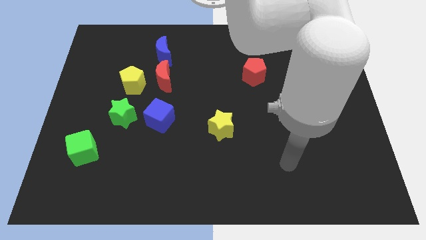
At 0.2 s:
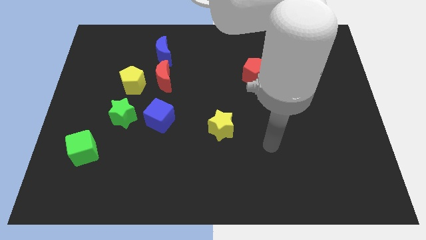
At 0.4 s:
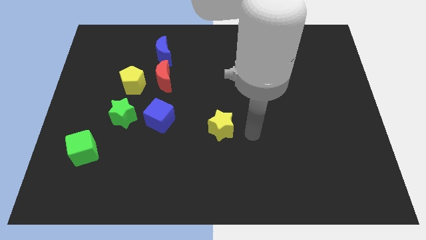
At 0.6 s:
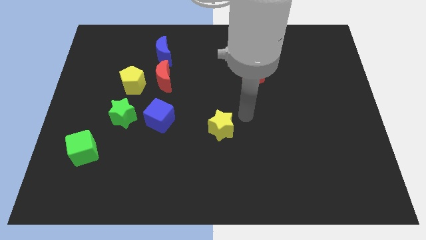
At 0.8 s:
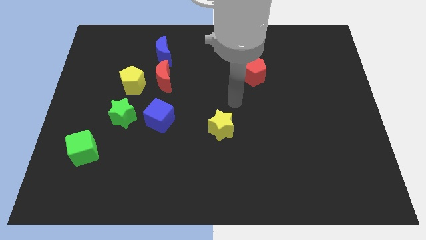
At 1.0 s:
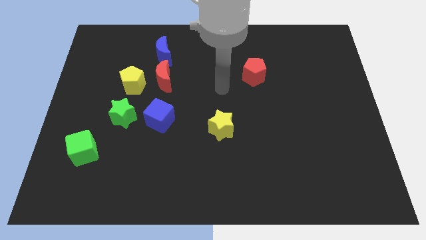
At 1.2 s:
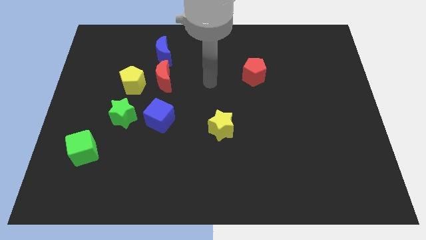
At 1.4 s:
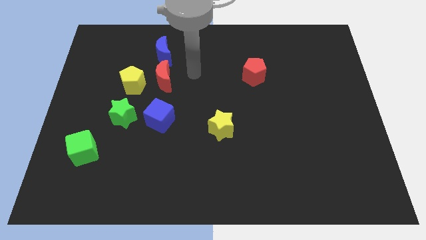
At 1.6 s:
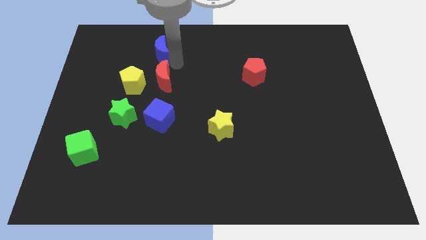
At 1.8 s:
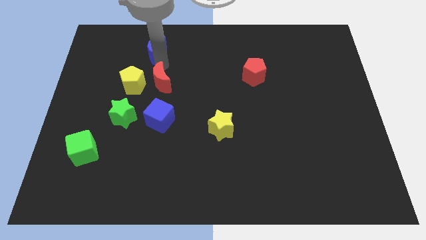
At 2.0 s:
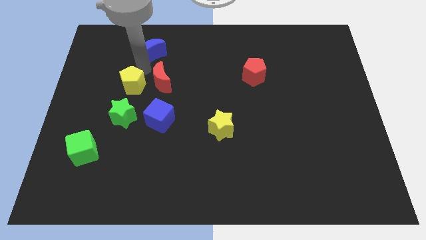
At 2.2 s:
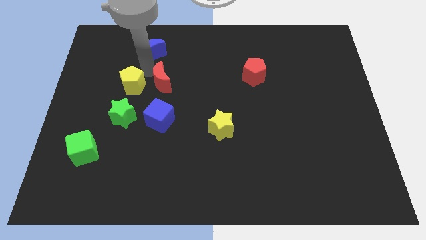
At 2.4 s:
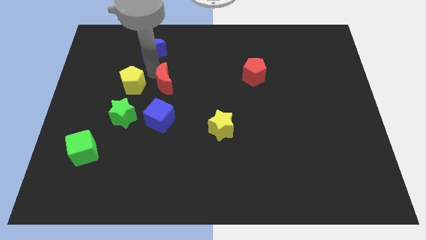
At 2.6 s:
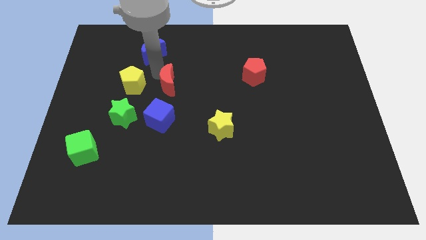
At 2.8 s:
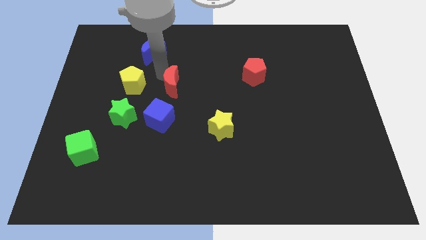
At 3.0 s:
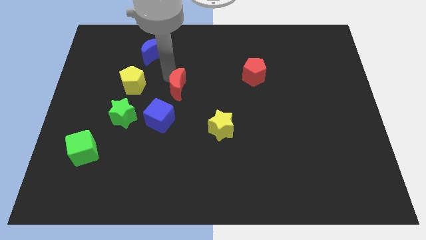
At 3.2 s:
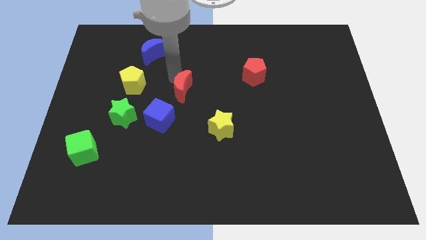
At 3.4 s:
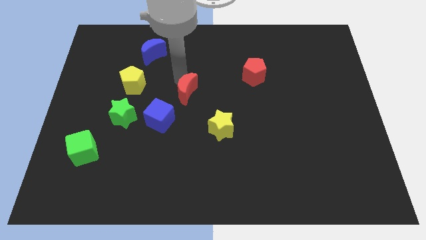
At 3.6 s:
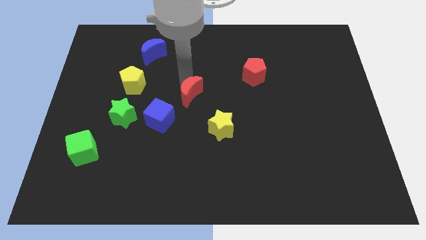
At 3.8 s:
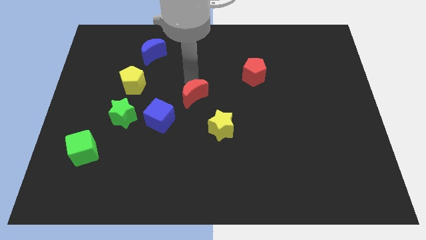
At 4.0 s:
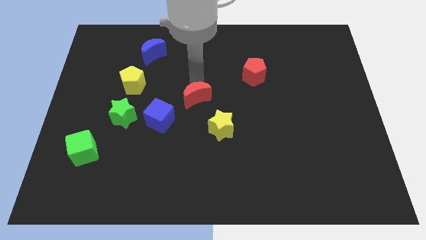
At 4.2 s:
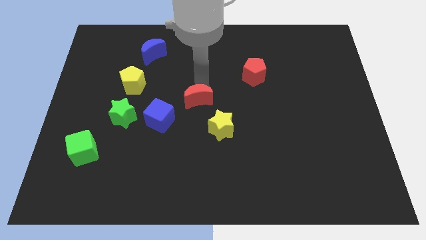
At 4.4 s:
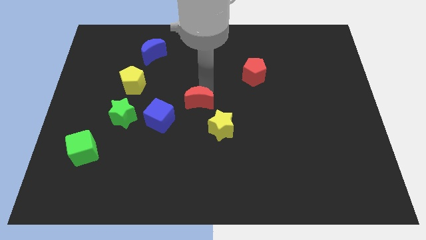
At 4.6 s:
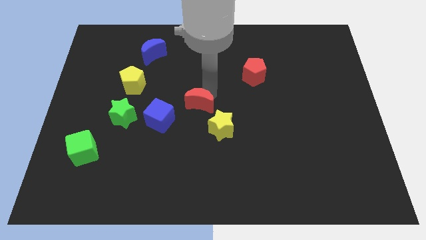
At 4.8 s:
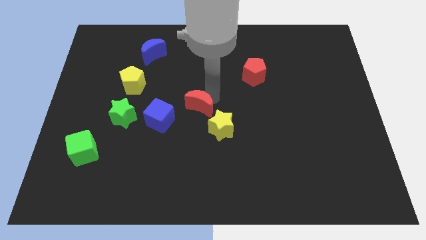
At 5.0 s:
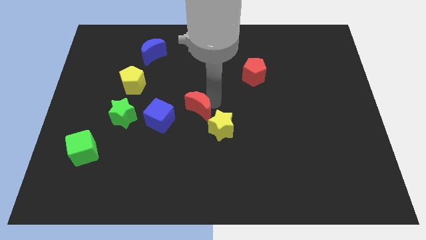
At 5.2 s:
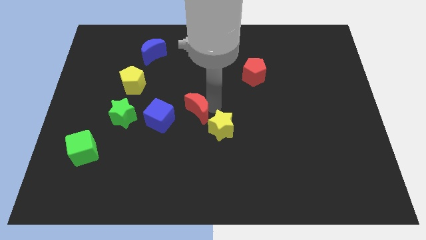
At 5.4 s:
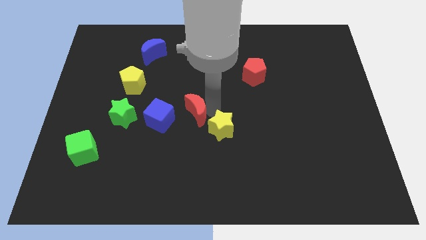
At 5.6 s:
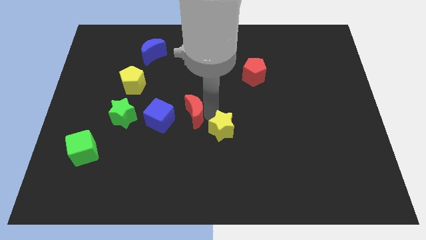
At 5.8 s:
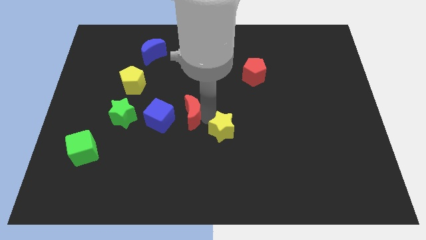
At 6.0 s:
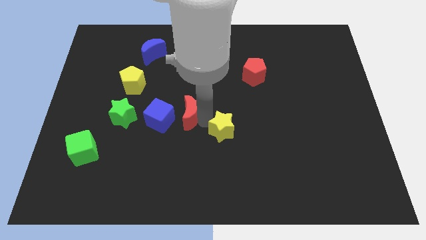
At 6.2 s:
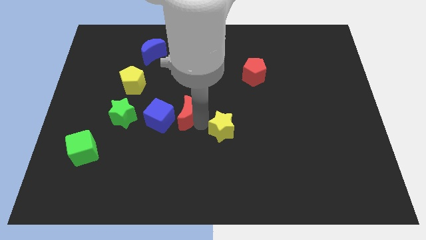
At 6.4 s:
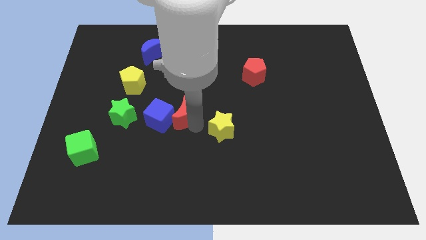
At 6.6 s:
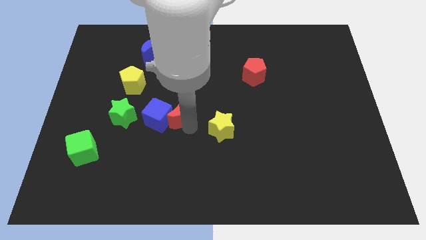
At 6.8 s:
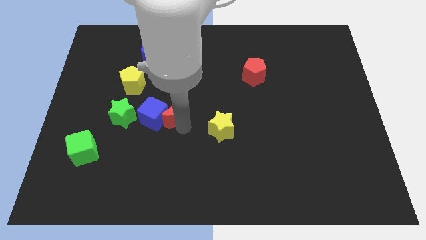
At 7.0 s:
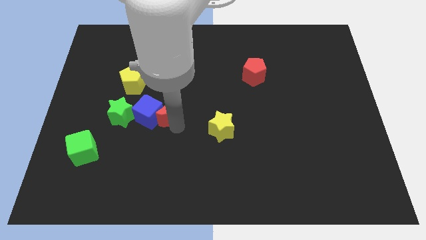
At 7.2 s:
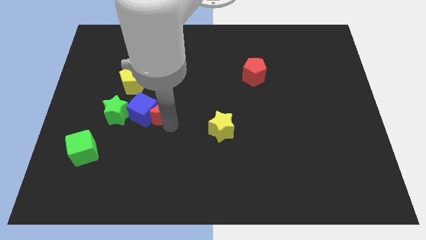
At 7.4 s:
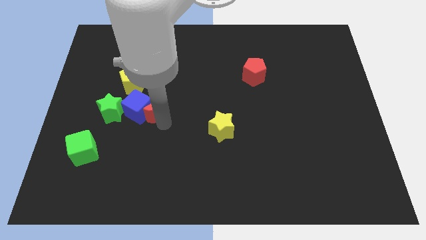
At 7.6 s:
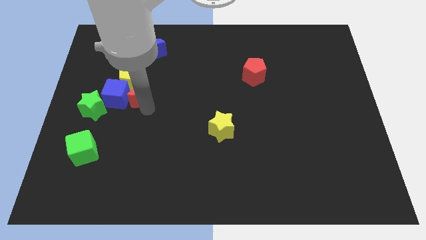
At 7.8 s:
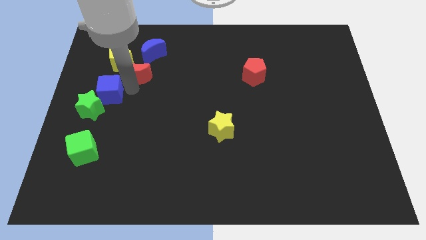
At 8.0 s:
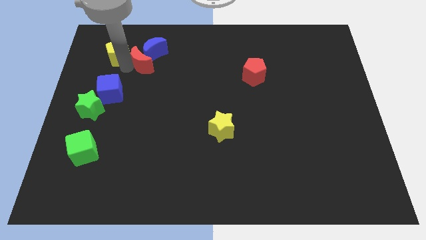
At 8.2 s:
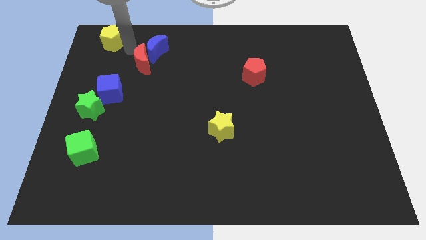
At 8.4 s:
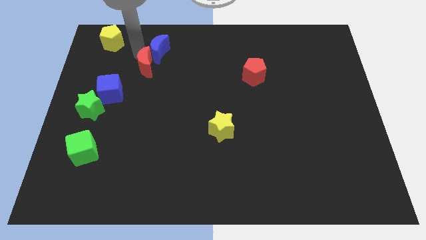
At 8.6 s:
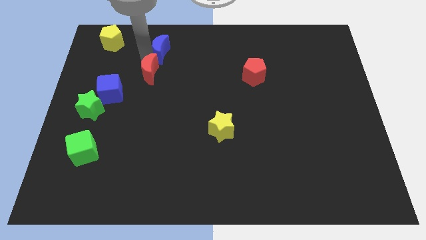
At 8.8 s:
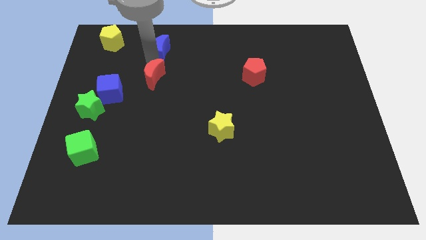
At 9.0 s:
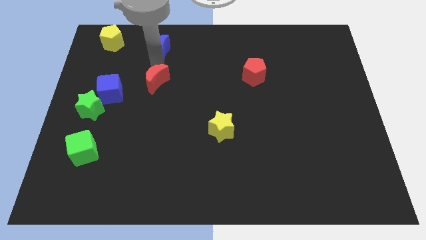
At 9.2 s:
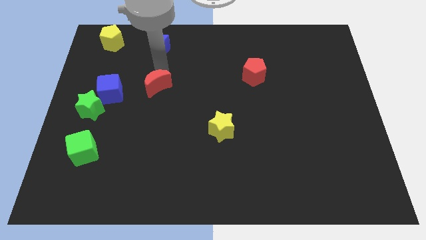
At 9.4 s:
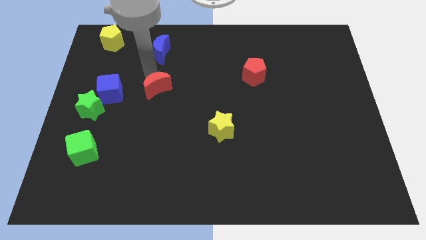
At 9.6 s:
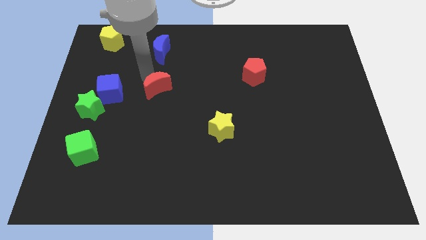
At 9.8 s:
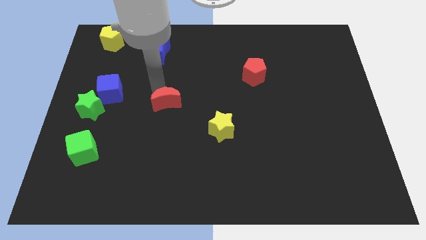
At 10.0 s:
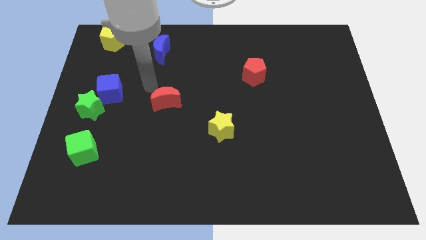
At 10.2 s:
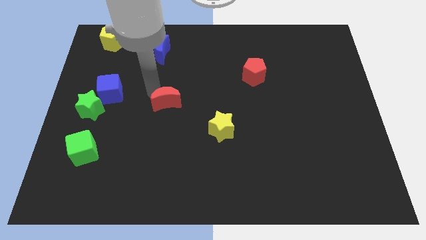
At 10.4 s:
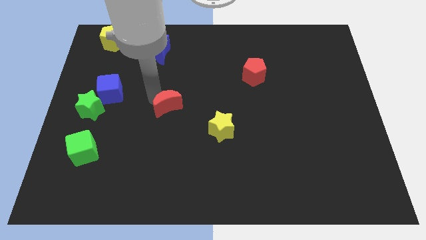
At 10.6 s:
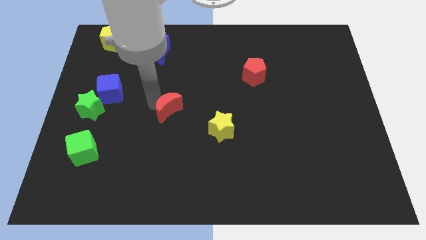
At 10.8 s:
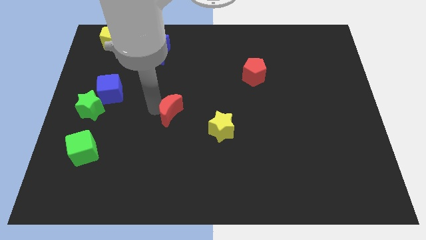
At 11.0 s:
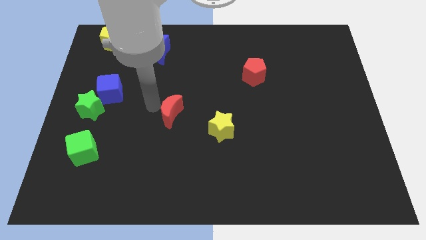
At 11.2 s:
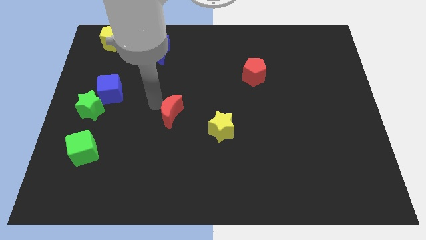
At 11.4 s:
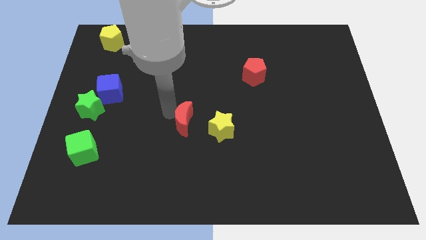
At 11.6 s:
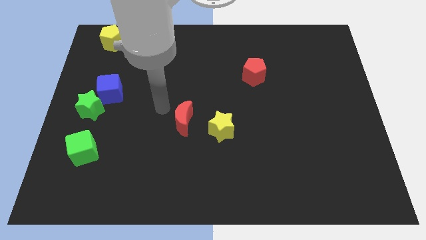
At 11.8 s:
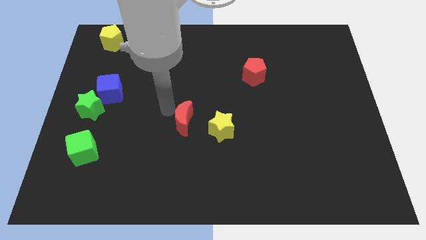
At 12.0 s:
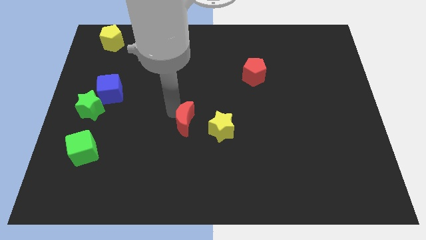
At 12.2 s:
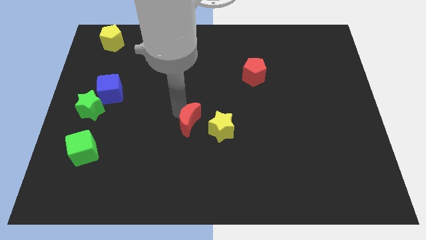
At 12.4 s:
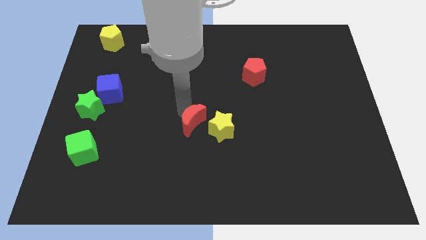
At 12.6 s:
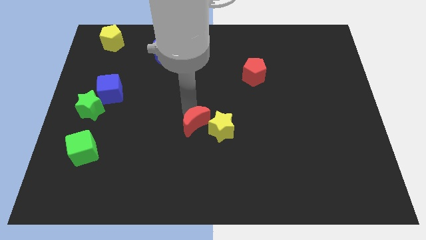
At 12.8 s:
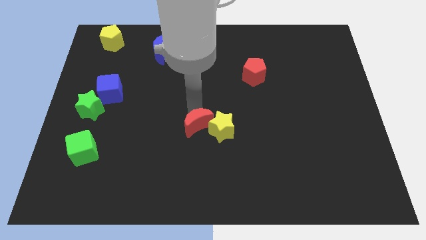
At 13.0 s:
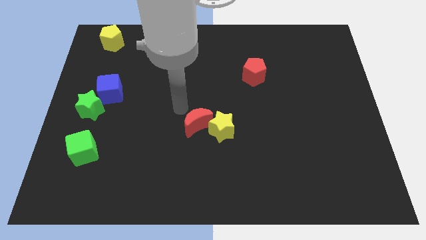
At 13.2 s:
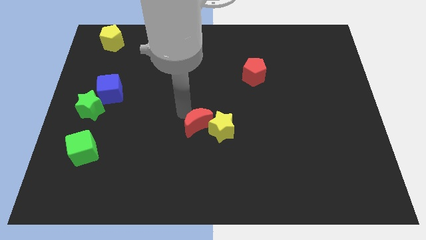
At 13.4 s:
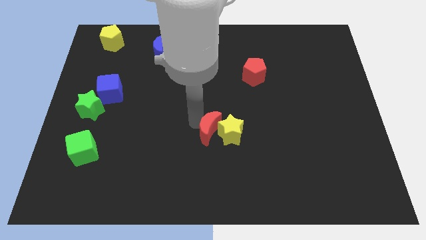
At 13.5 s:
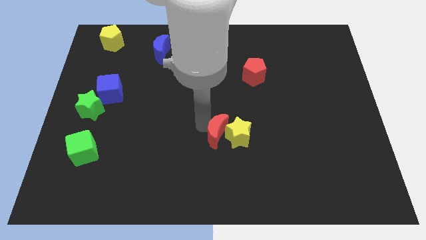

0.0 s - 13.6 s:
move the red moon down and right

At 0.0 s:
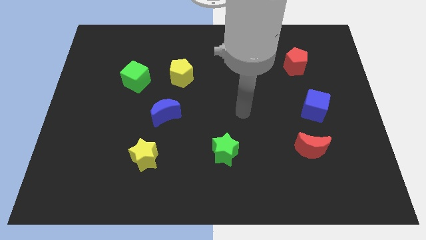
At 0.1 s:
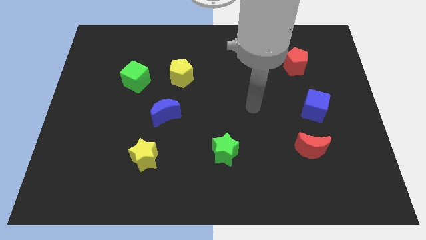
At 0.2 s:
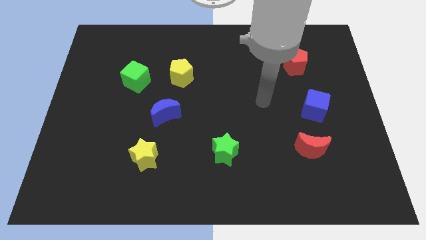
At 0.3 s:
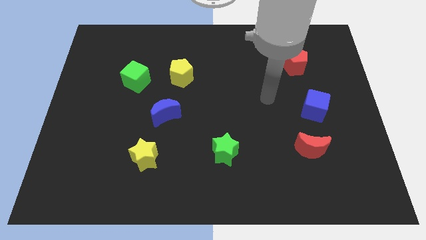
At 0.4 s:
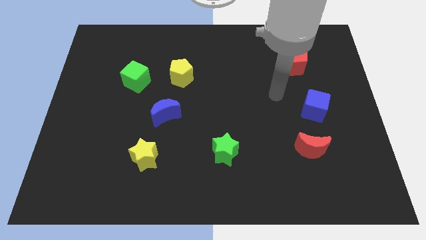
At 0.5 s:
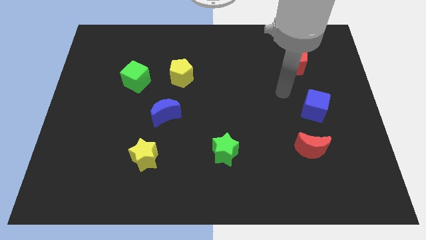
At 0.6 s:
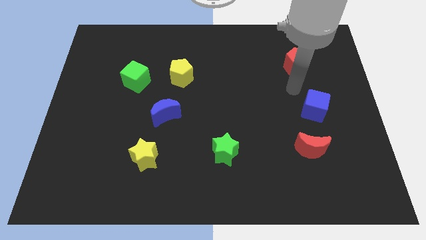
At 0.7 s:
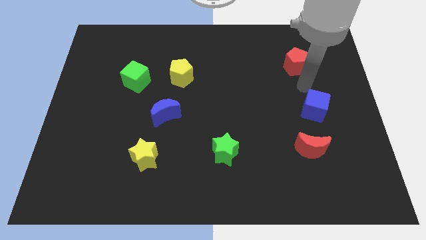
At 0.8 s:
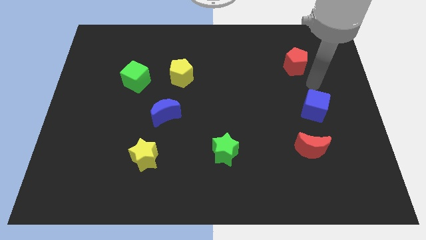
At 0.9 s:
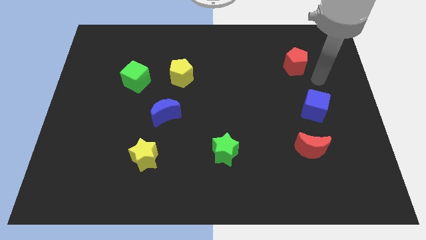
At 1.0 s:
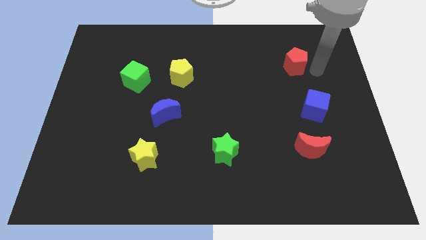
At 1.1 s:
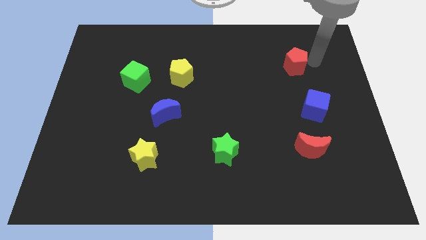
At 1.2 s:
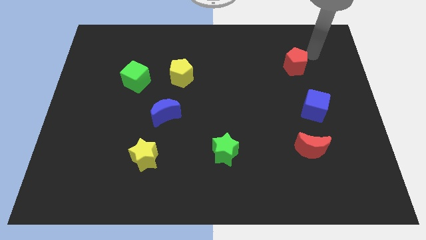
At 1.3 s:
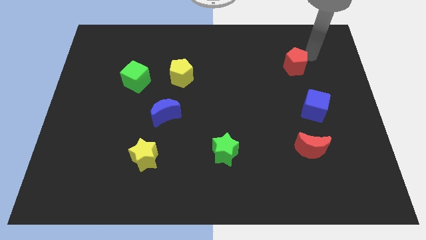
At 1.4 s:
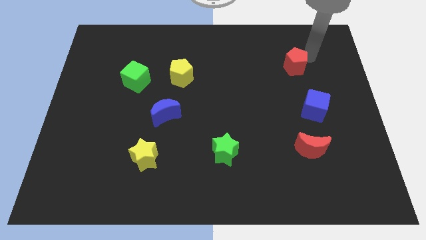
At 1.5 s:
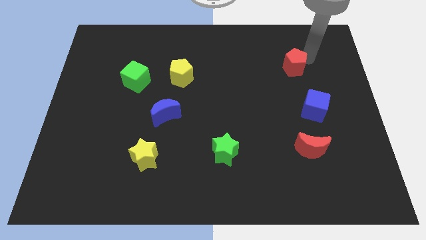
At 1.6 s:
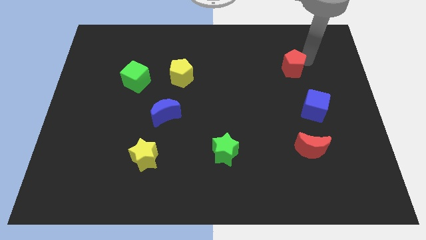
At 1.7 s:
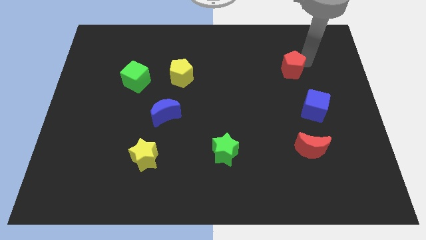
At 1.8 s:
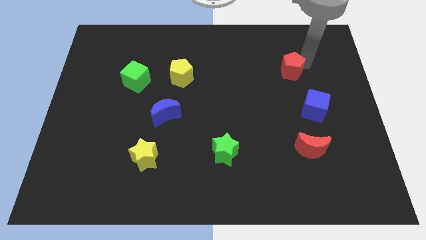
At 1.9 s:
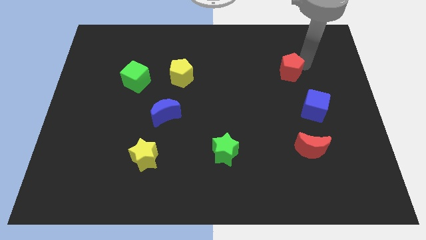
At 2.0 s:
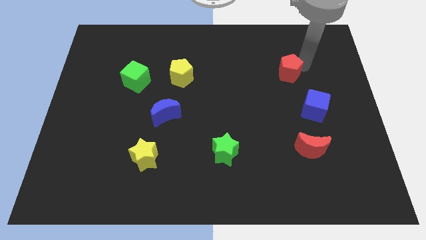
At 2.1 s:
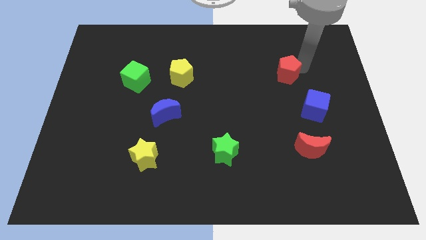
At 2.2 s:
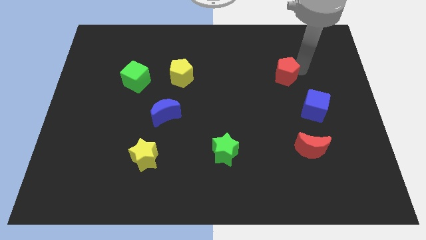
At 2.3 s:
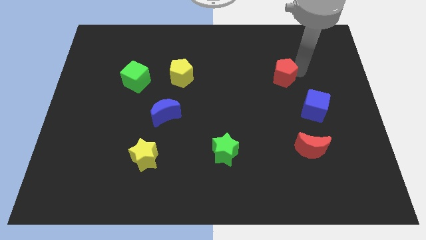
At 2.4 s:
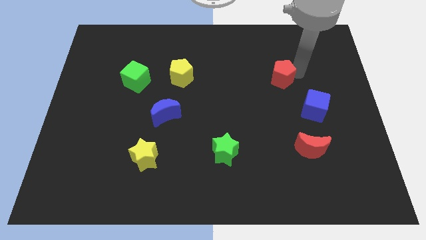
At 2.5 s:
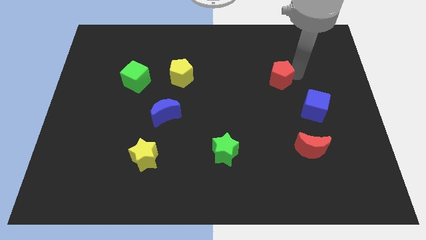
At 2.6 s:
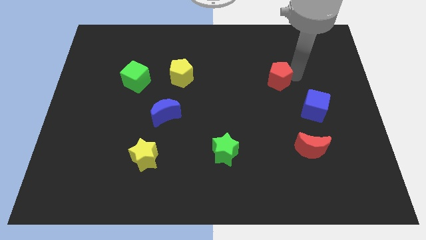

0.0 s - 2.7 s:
slightly move the red pentagon diagonally downwards and left
